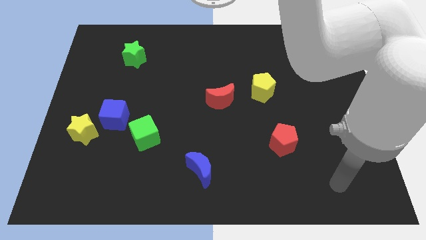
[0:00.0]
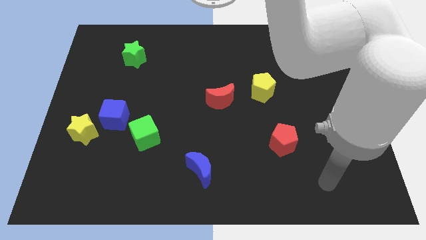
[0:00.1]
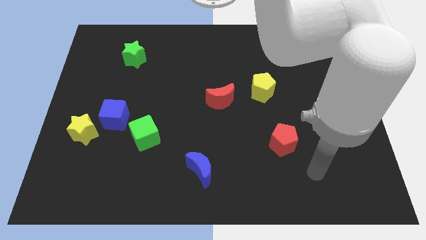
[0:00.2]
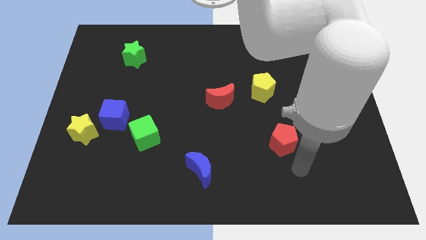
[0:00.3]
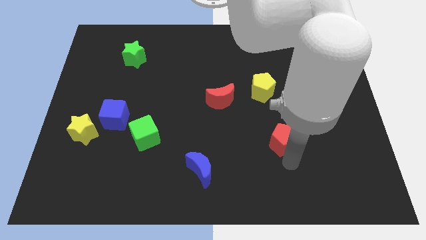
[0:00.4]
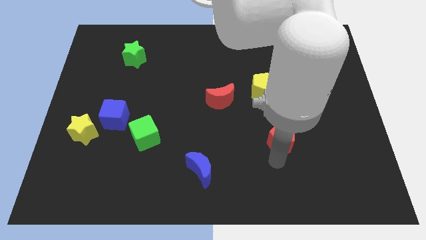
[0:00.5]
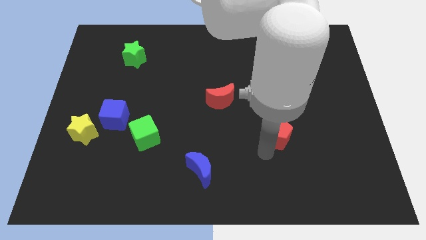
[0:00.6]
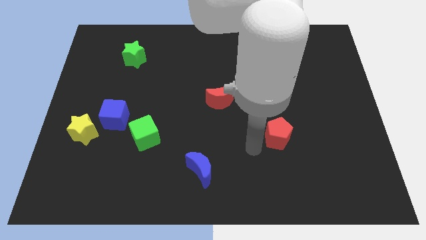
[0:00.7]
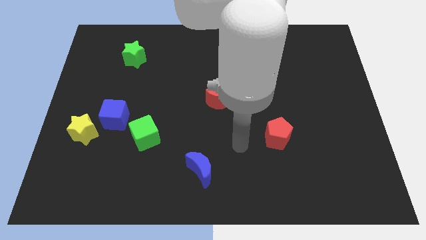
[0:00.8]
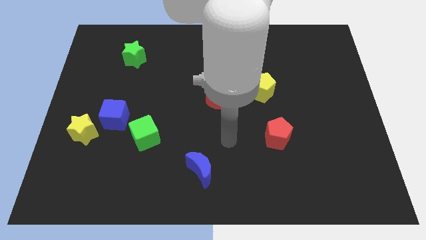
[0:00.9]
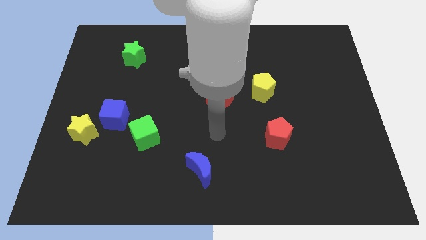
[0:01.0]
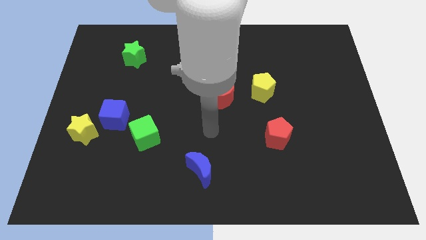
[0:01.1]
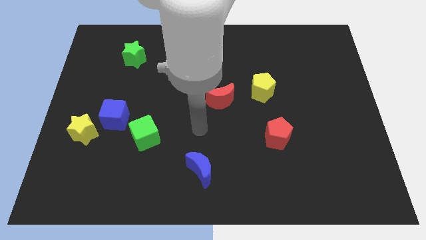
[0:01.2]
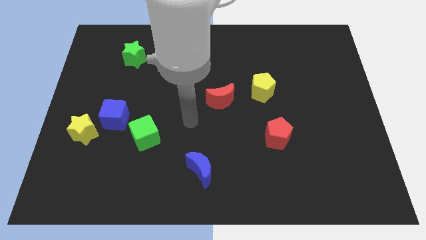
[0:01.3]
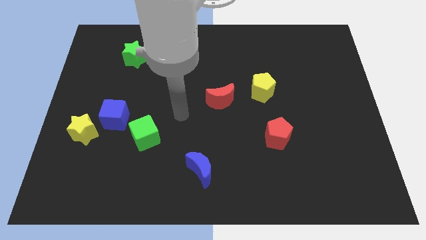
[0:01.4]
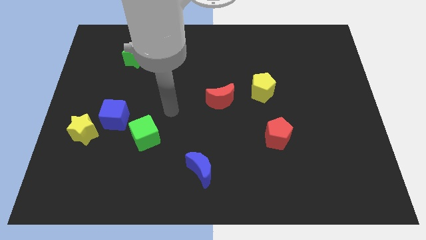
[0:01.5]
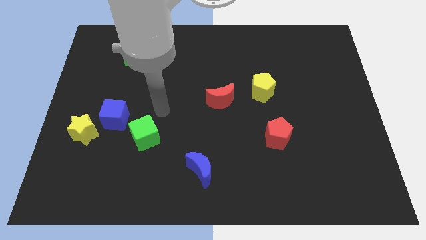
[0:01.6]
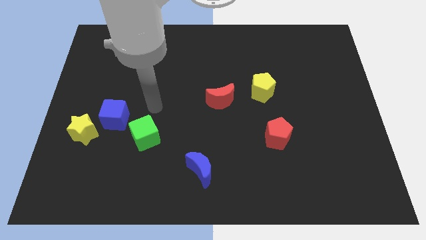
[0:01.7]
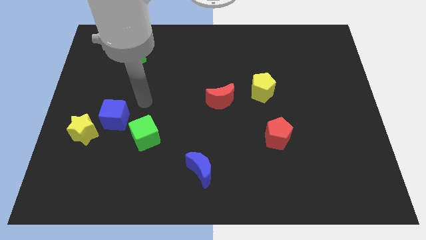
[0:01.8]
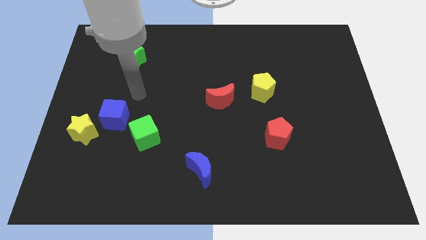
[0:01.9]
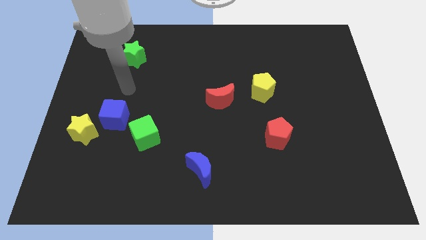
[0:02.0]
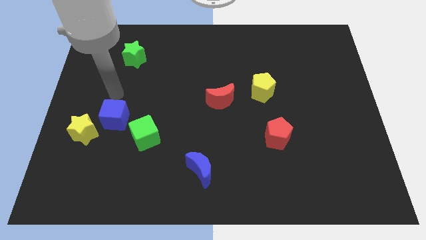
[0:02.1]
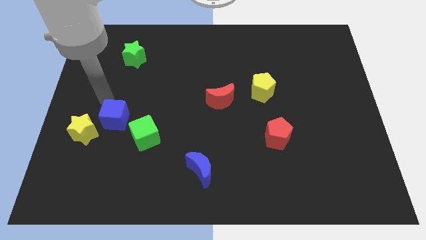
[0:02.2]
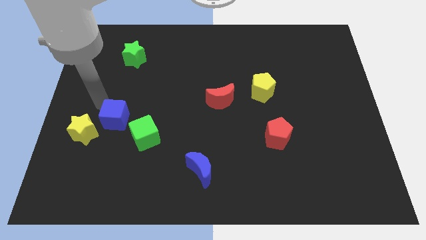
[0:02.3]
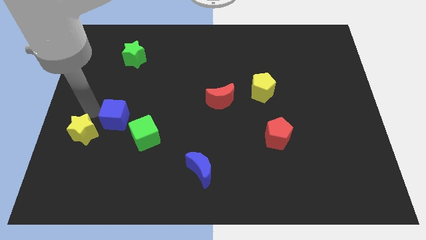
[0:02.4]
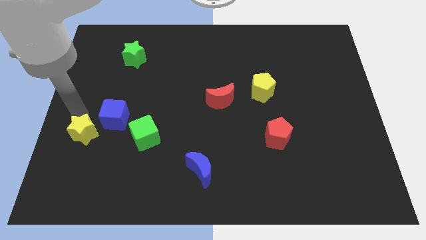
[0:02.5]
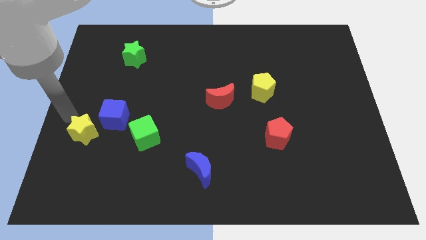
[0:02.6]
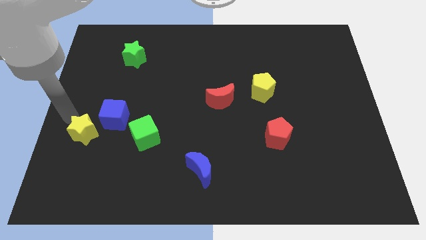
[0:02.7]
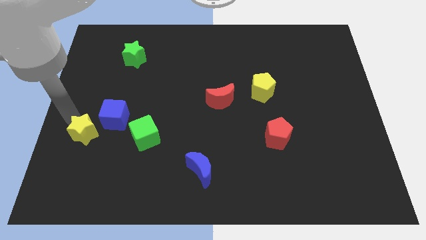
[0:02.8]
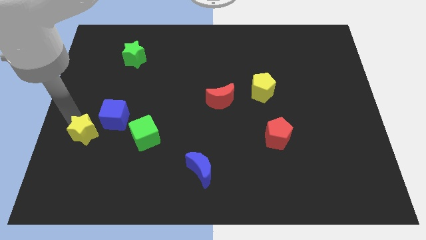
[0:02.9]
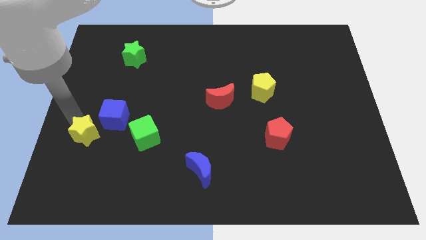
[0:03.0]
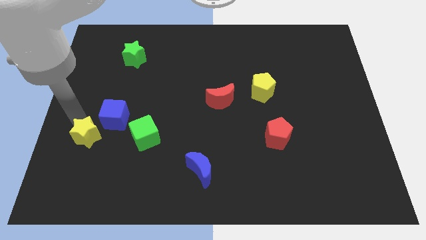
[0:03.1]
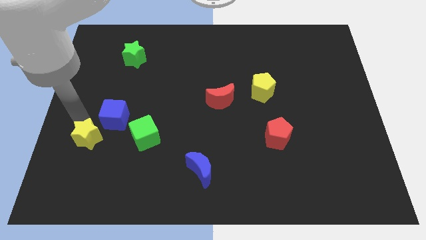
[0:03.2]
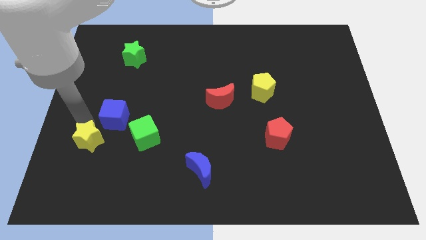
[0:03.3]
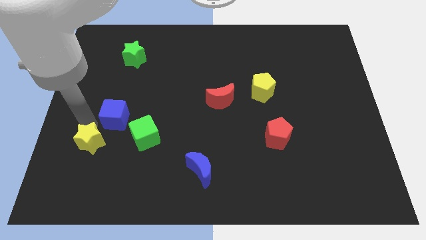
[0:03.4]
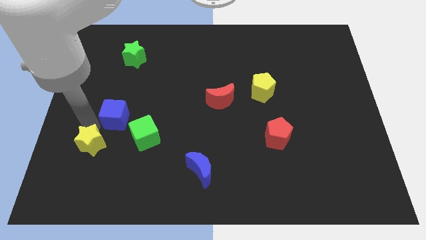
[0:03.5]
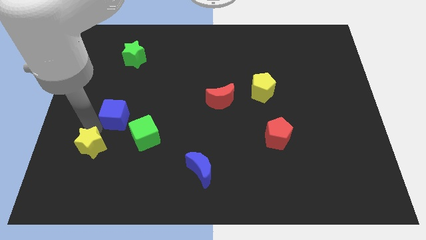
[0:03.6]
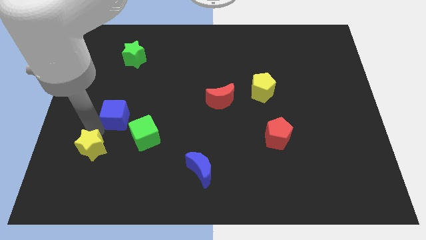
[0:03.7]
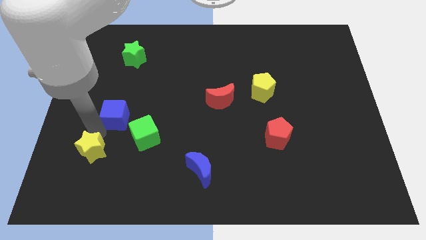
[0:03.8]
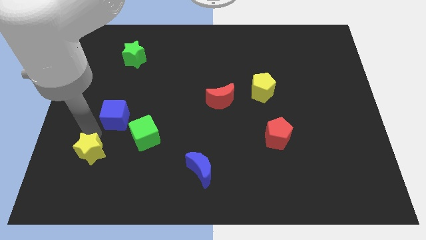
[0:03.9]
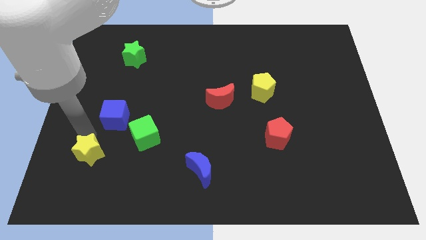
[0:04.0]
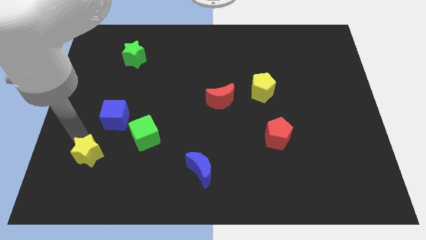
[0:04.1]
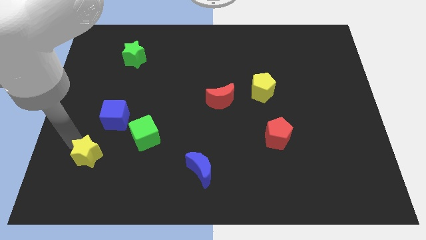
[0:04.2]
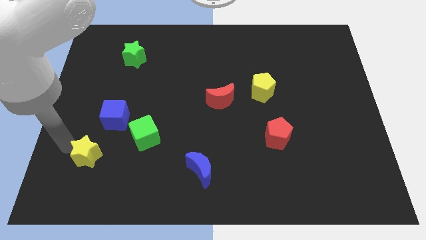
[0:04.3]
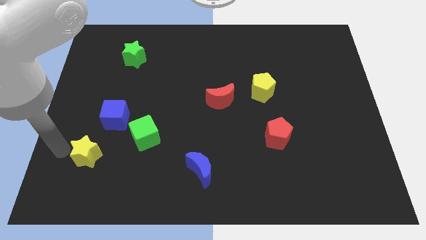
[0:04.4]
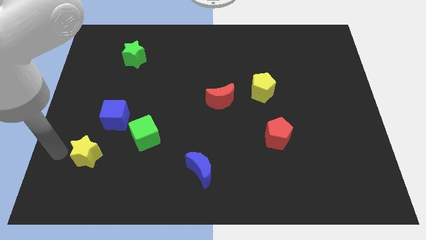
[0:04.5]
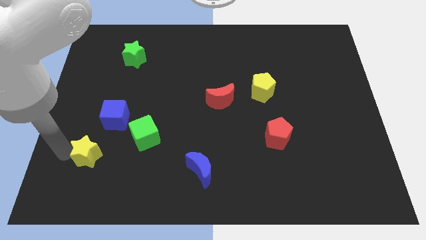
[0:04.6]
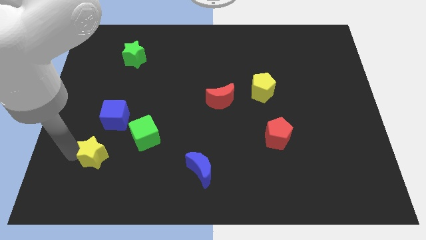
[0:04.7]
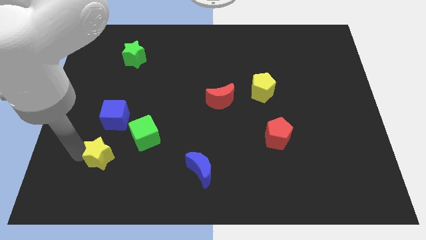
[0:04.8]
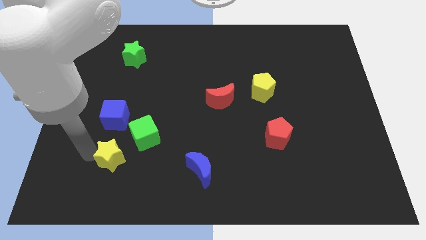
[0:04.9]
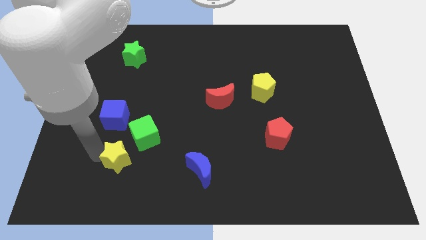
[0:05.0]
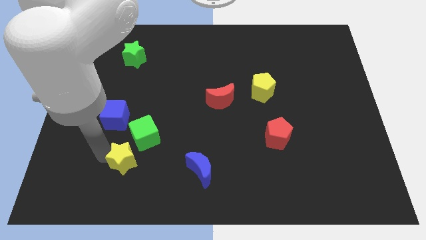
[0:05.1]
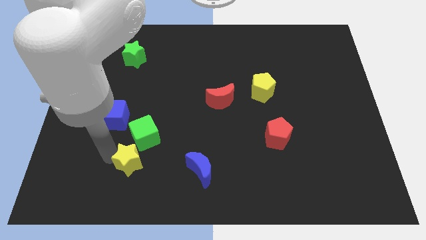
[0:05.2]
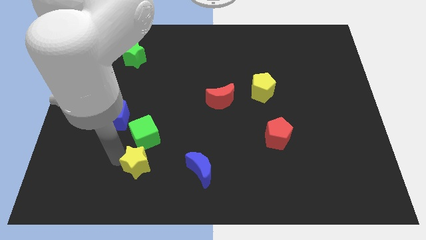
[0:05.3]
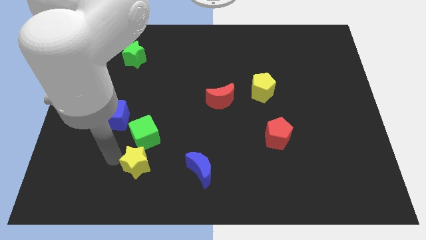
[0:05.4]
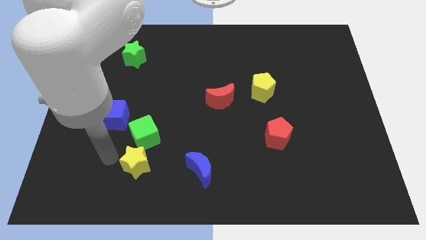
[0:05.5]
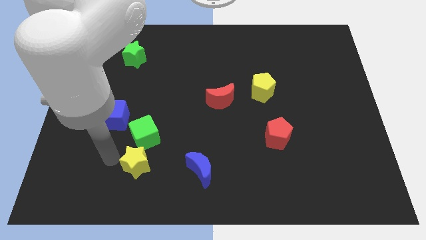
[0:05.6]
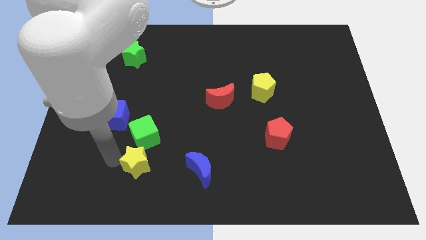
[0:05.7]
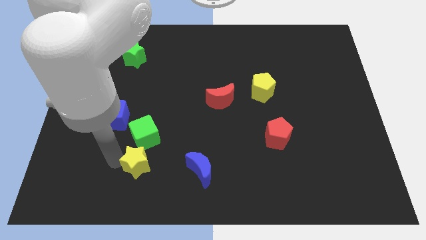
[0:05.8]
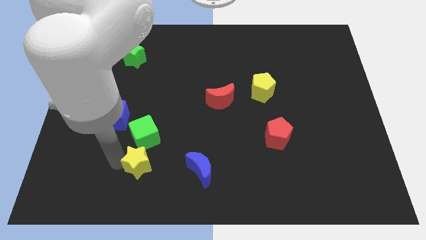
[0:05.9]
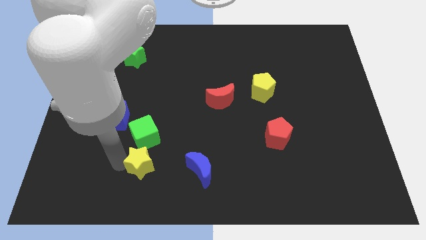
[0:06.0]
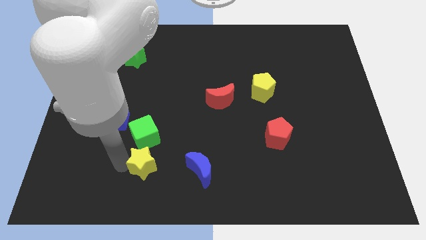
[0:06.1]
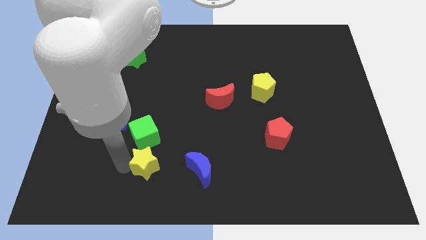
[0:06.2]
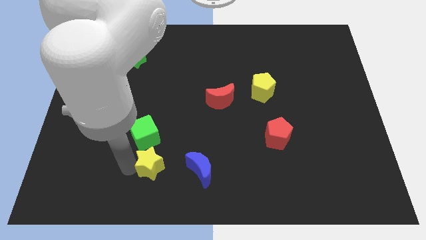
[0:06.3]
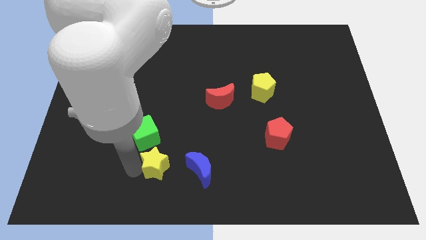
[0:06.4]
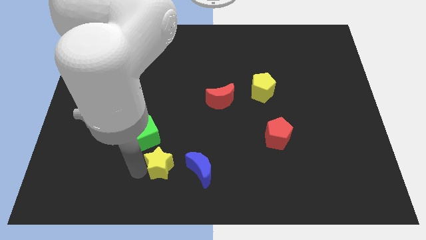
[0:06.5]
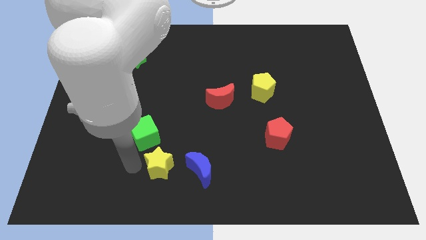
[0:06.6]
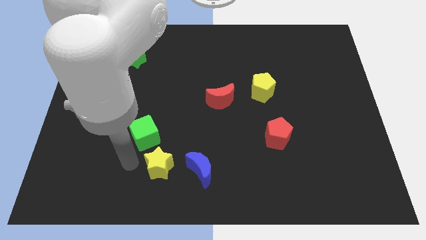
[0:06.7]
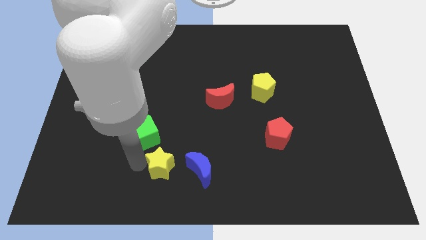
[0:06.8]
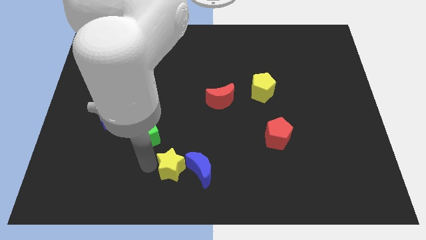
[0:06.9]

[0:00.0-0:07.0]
slide the yellow star to the blue moon

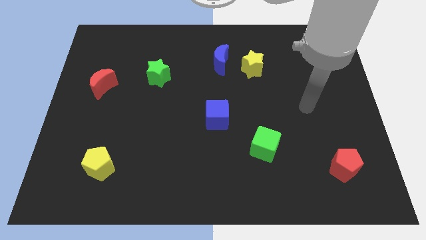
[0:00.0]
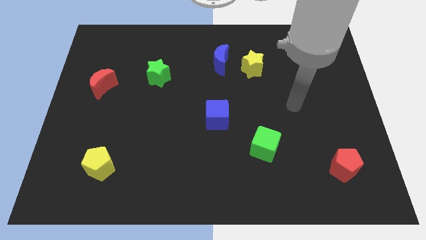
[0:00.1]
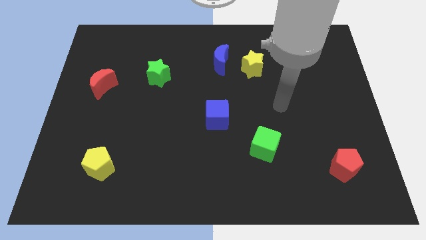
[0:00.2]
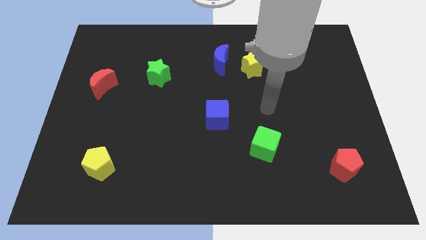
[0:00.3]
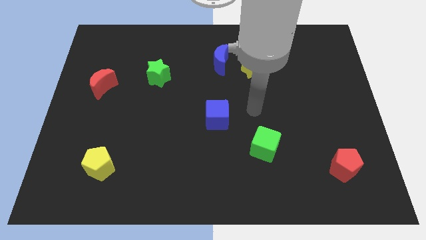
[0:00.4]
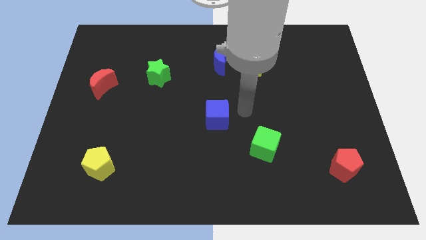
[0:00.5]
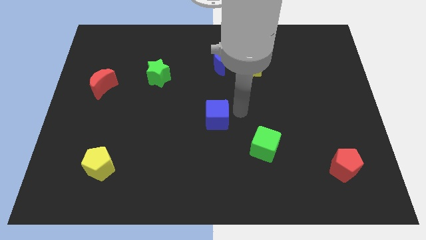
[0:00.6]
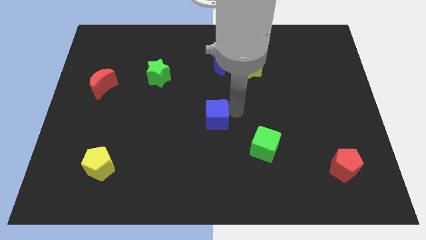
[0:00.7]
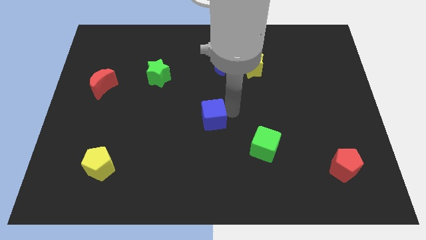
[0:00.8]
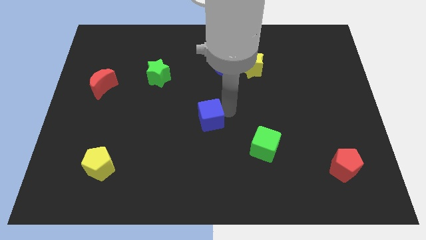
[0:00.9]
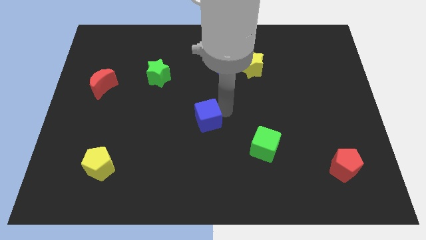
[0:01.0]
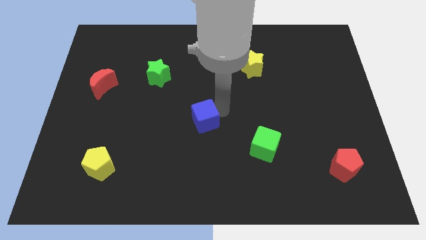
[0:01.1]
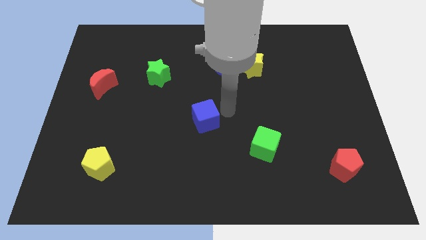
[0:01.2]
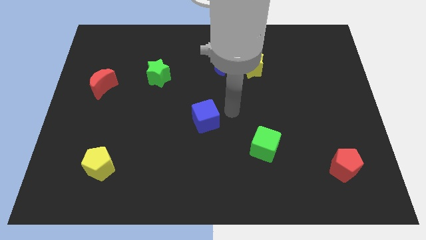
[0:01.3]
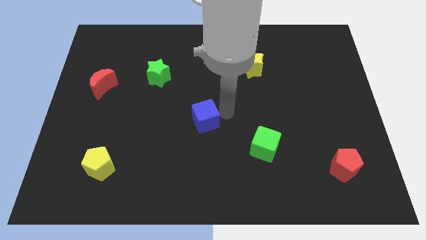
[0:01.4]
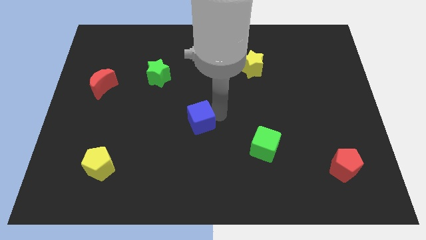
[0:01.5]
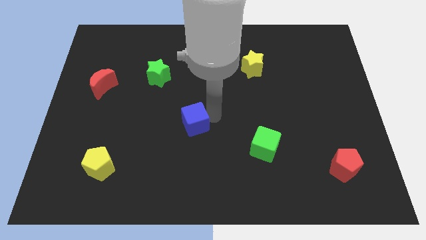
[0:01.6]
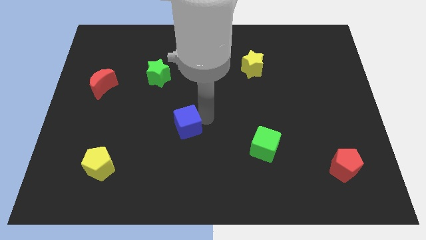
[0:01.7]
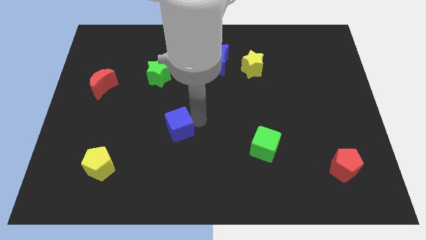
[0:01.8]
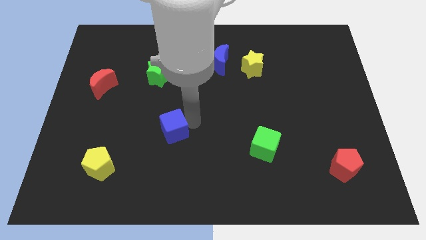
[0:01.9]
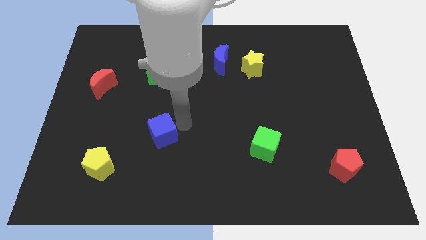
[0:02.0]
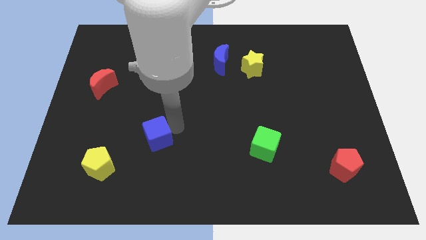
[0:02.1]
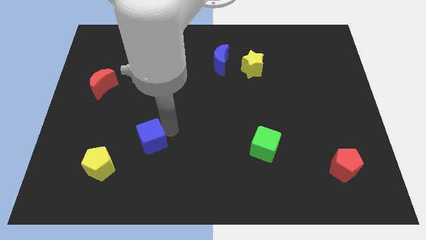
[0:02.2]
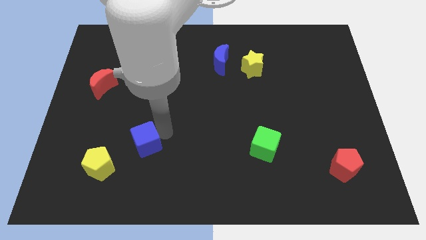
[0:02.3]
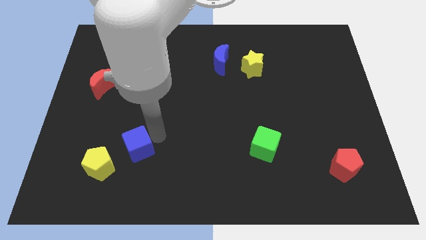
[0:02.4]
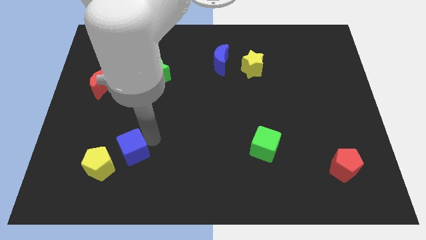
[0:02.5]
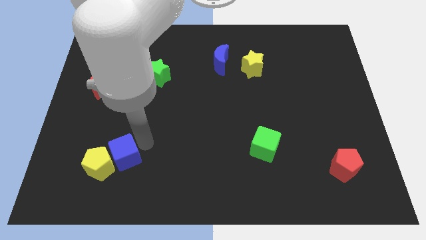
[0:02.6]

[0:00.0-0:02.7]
slide the blue cube next to the yellow pentagon
